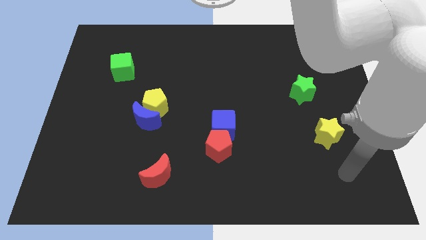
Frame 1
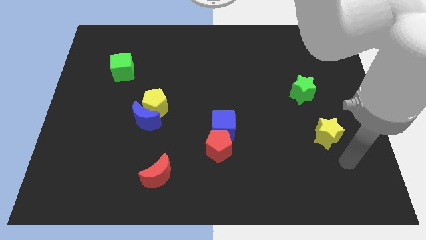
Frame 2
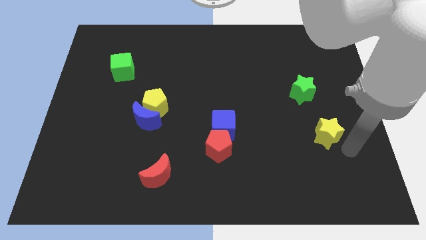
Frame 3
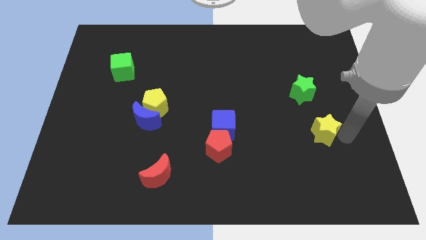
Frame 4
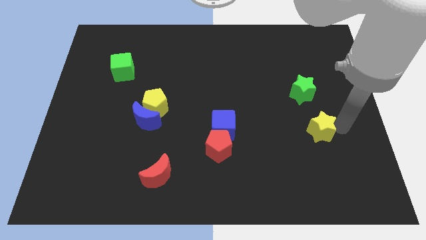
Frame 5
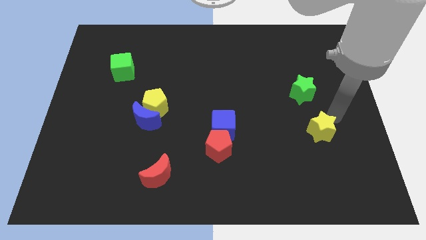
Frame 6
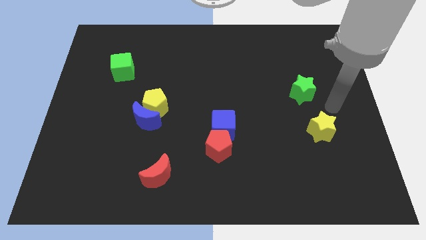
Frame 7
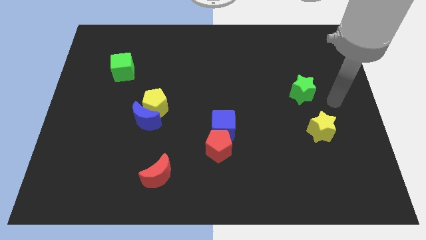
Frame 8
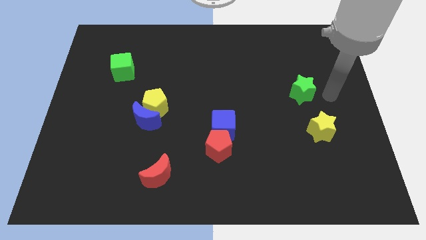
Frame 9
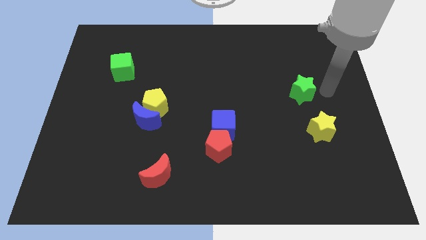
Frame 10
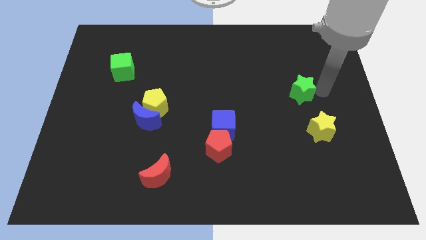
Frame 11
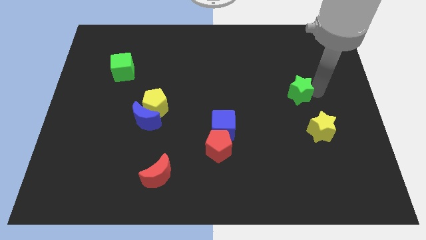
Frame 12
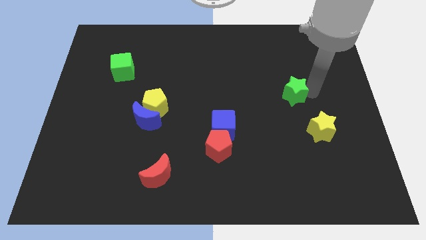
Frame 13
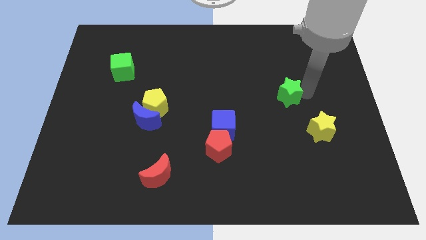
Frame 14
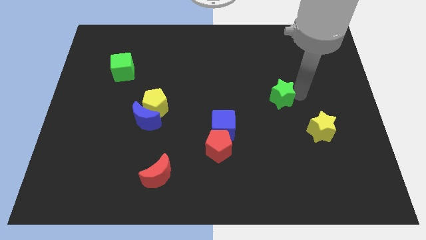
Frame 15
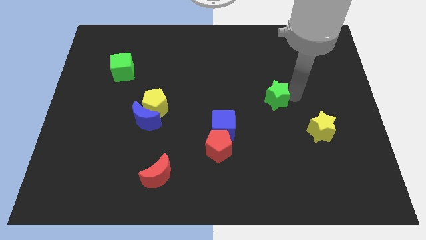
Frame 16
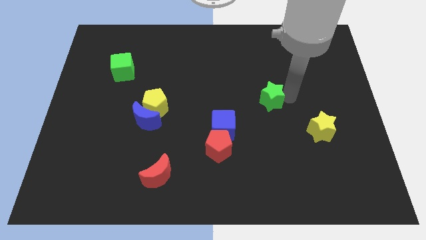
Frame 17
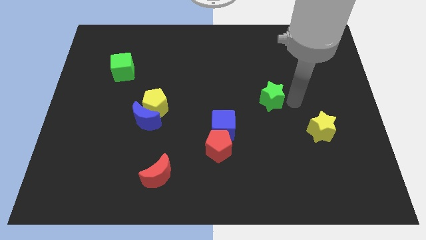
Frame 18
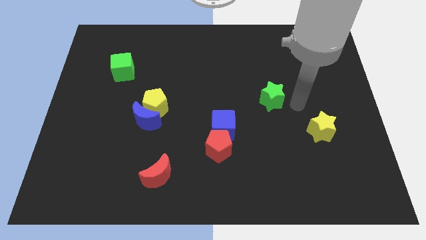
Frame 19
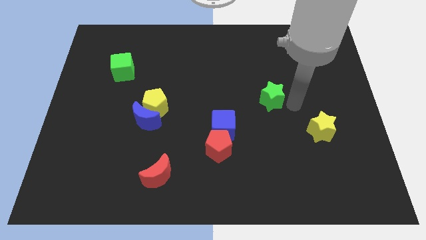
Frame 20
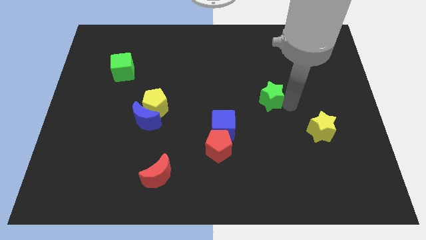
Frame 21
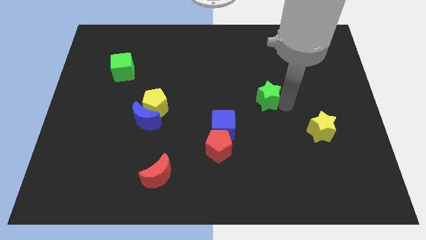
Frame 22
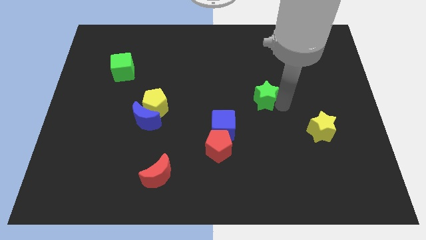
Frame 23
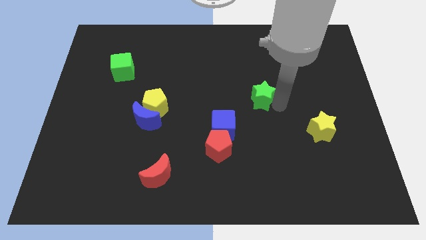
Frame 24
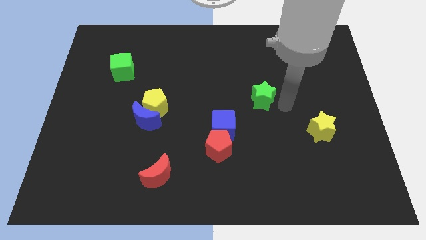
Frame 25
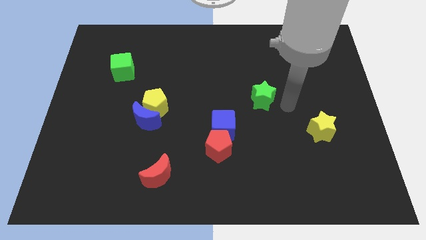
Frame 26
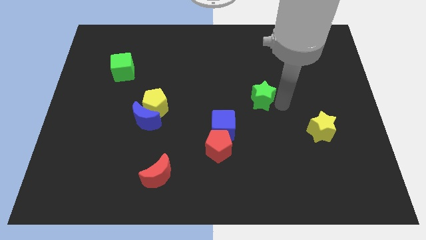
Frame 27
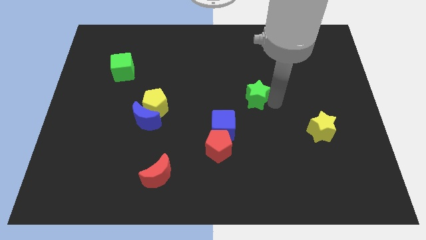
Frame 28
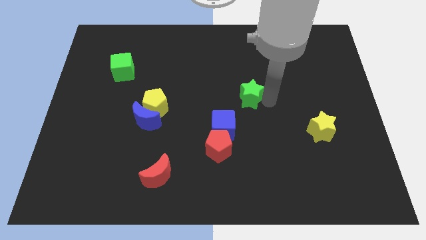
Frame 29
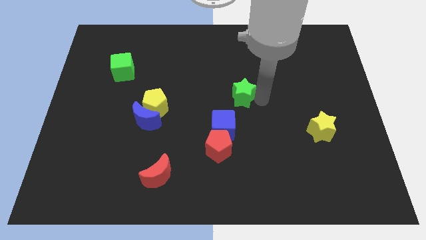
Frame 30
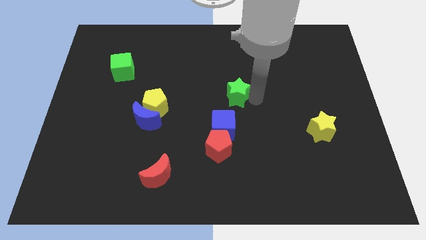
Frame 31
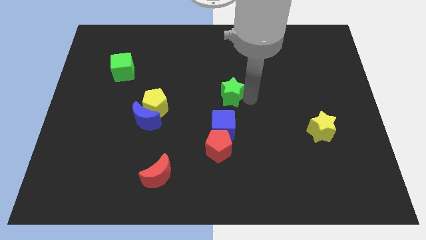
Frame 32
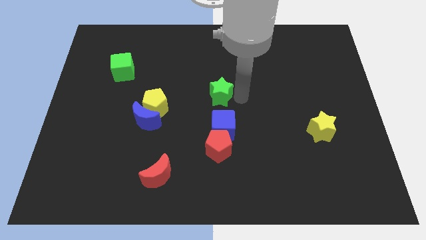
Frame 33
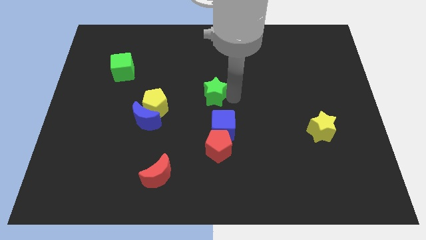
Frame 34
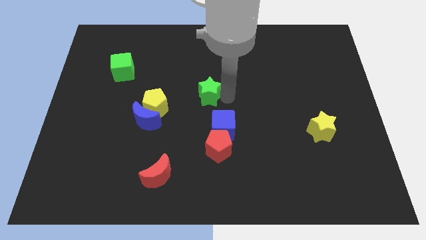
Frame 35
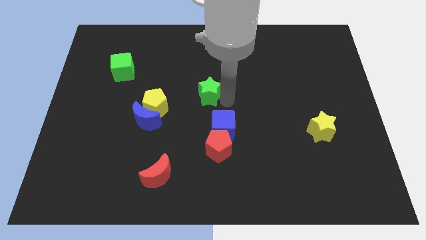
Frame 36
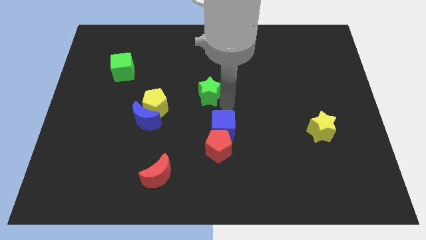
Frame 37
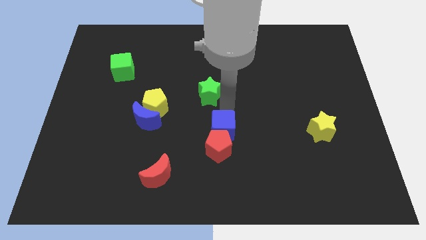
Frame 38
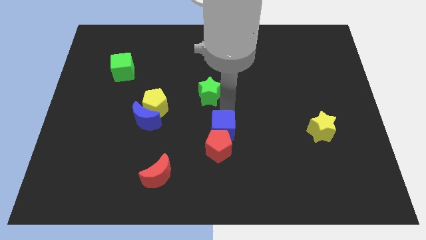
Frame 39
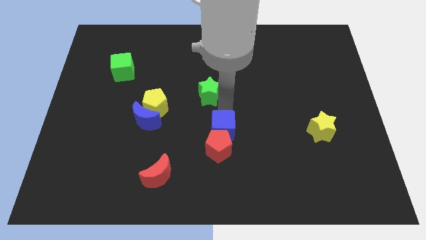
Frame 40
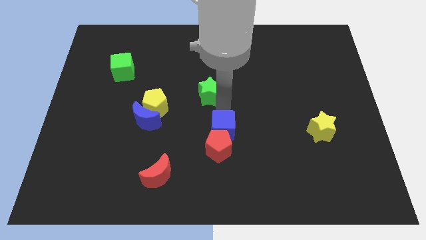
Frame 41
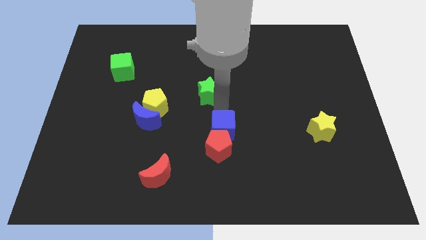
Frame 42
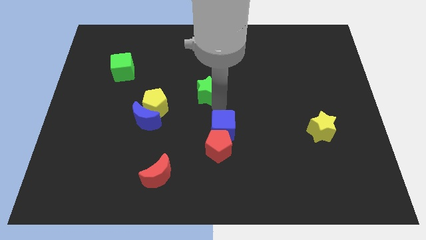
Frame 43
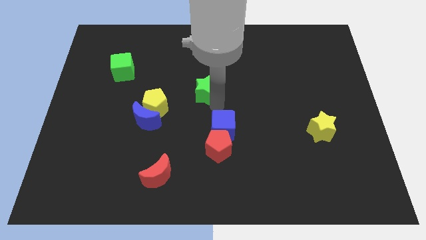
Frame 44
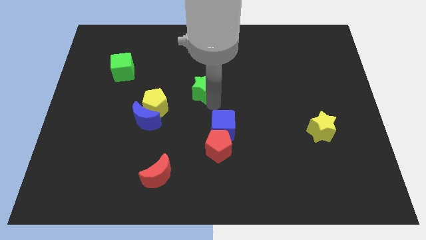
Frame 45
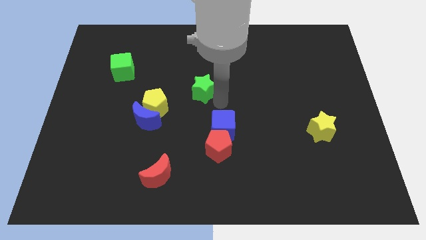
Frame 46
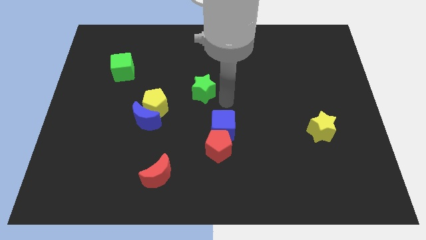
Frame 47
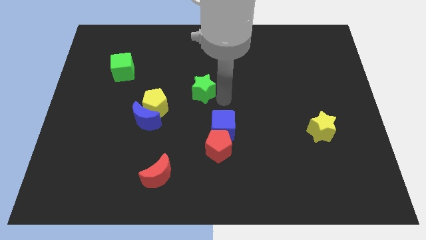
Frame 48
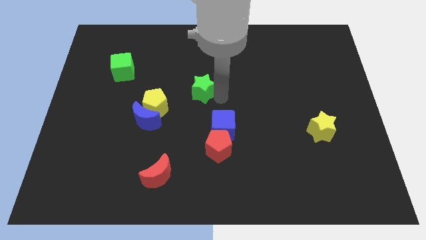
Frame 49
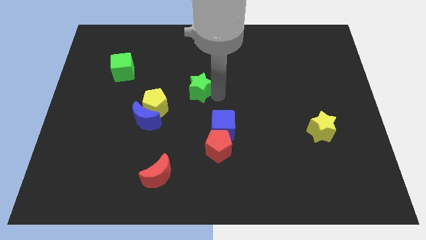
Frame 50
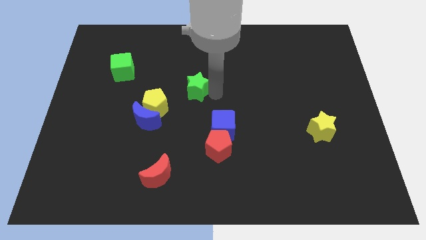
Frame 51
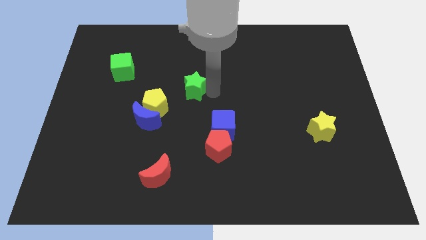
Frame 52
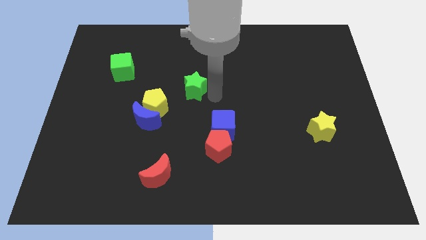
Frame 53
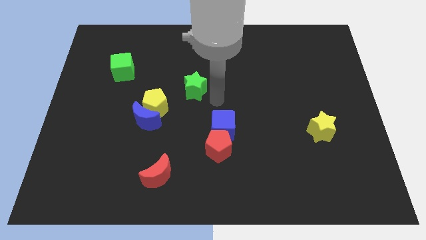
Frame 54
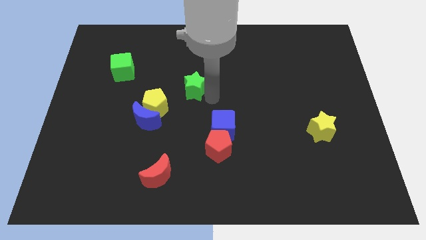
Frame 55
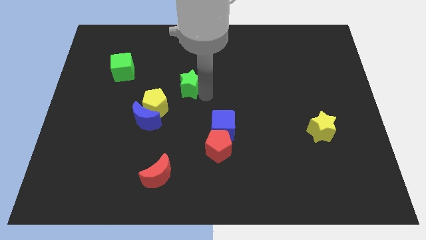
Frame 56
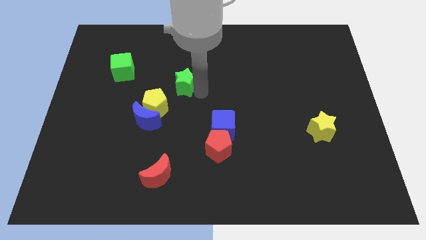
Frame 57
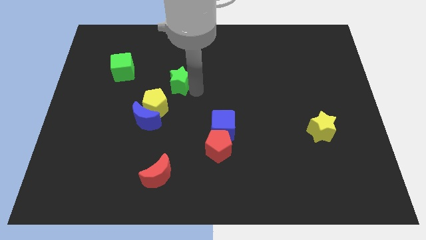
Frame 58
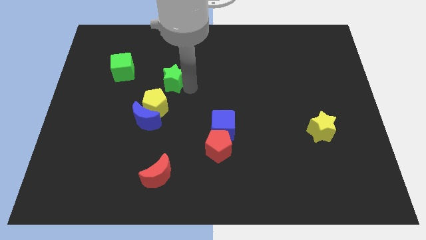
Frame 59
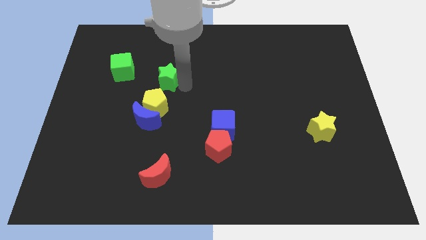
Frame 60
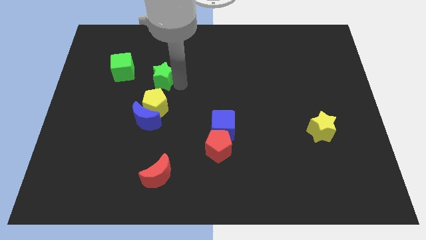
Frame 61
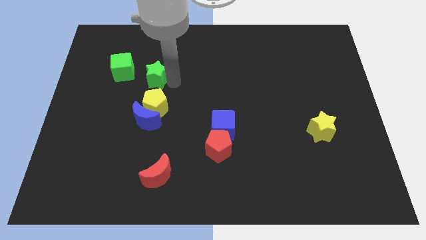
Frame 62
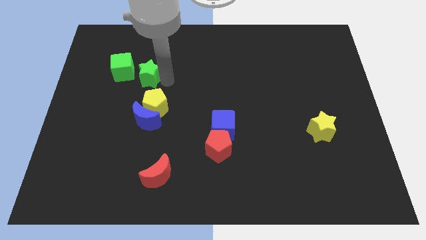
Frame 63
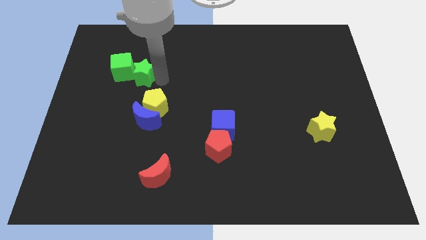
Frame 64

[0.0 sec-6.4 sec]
put the green star towards the green cube

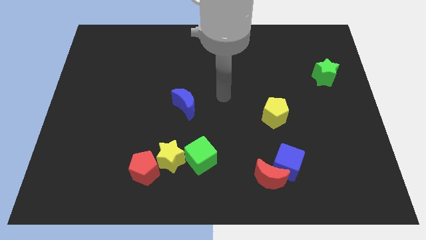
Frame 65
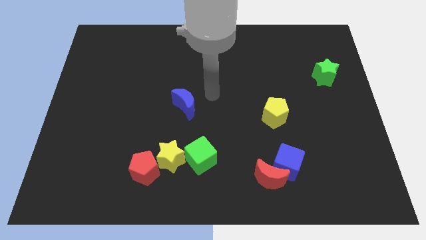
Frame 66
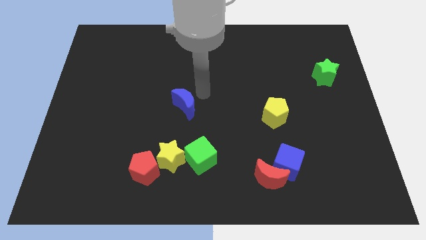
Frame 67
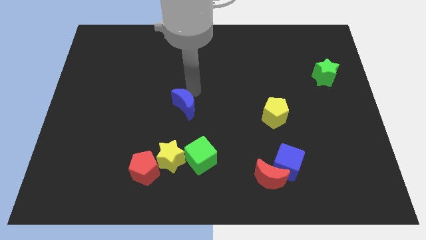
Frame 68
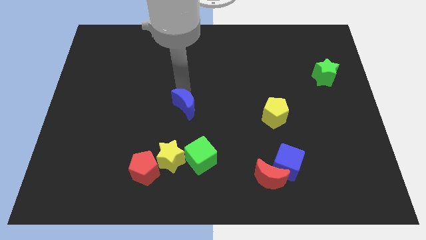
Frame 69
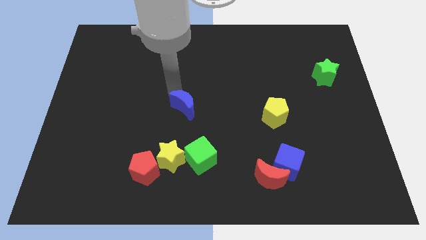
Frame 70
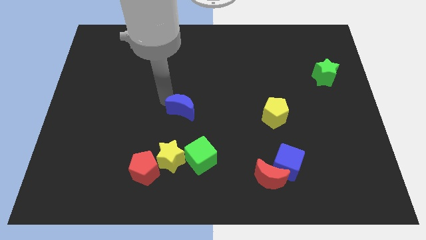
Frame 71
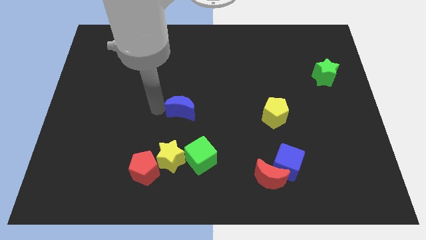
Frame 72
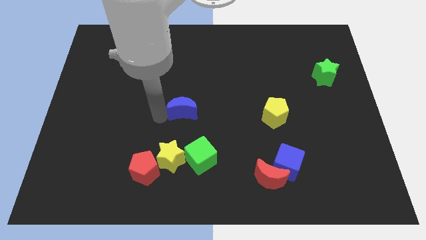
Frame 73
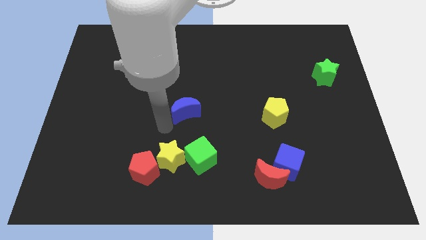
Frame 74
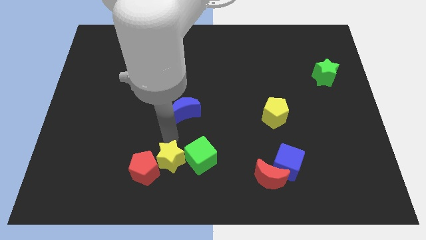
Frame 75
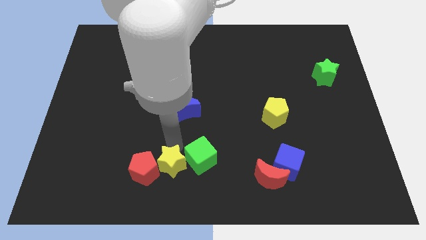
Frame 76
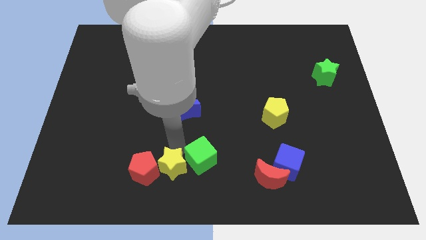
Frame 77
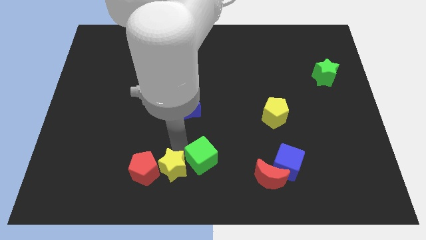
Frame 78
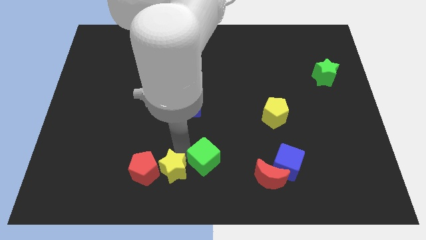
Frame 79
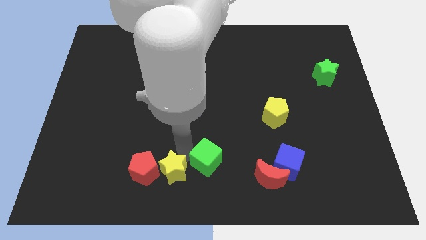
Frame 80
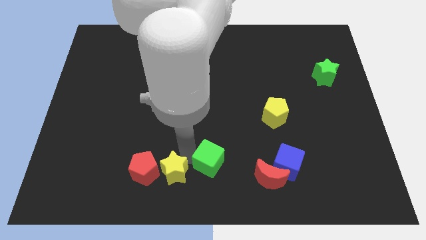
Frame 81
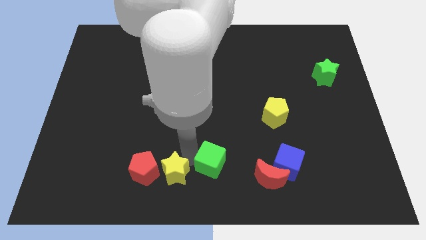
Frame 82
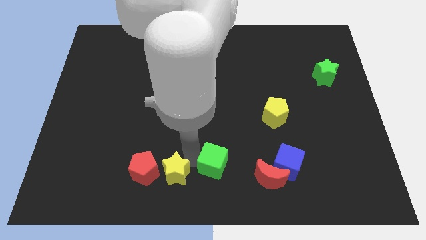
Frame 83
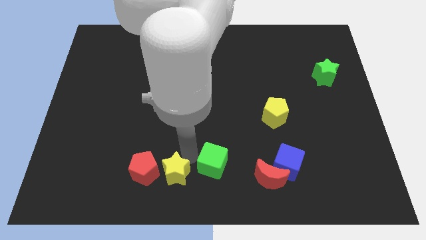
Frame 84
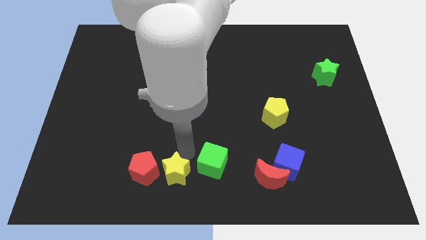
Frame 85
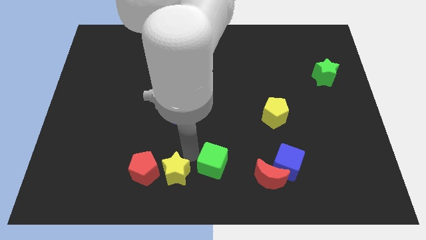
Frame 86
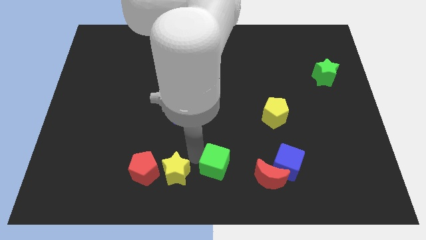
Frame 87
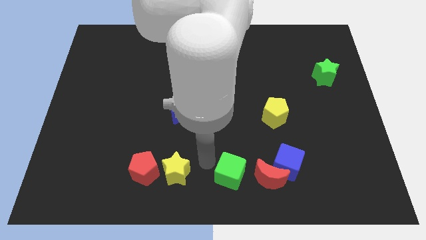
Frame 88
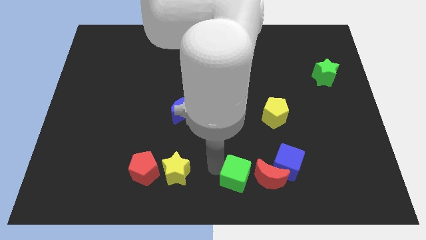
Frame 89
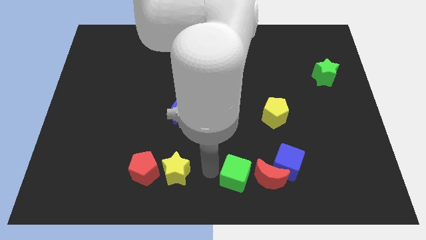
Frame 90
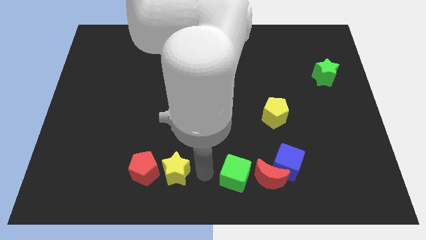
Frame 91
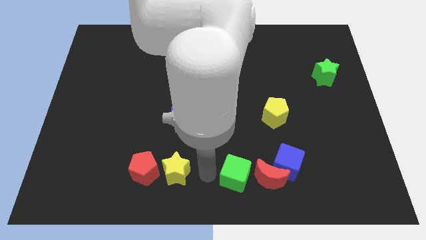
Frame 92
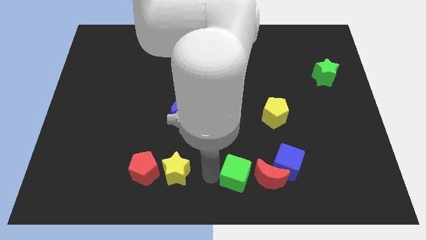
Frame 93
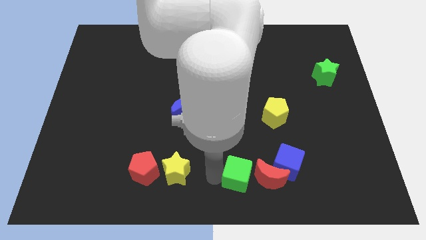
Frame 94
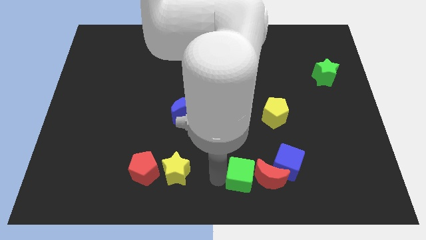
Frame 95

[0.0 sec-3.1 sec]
move the green cube next to the red moon
